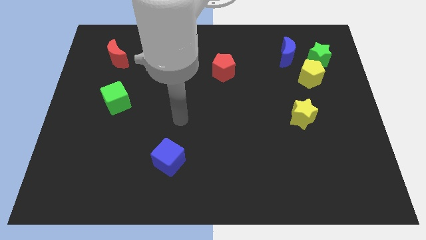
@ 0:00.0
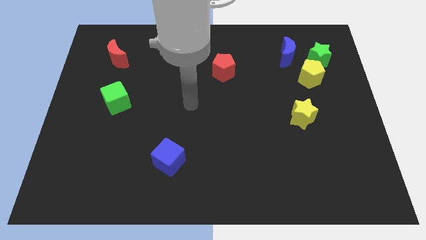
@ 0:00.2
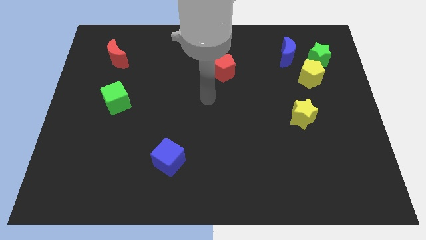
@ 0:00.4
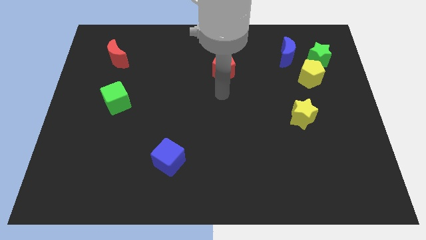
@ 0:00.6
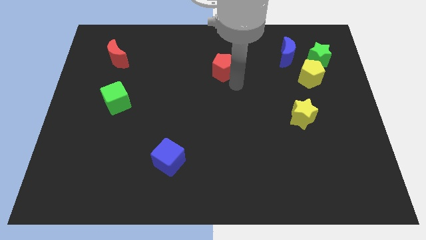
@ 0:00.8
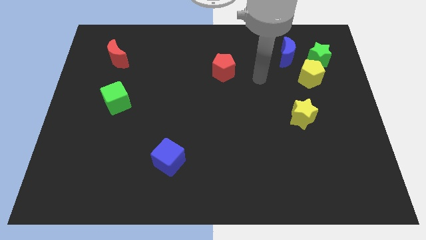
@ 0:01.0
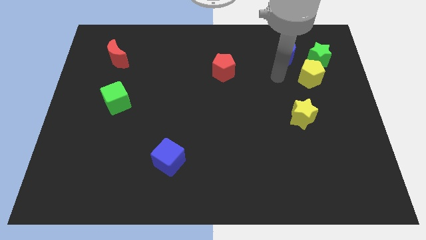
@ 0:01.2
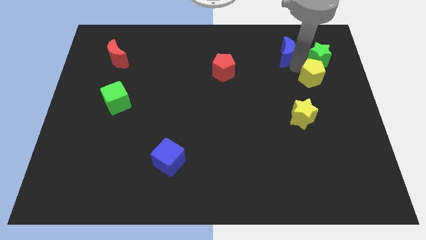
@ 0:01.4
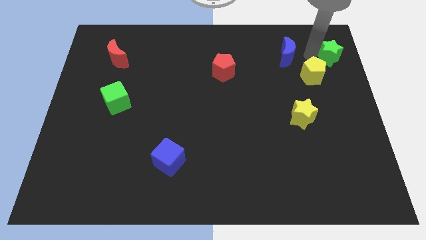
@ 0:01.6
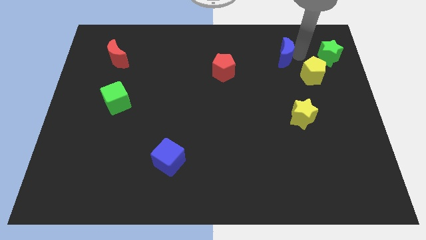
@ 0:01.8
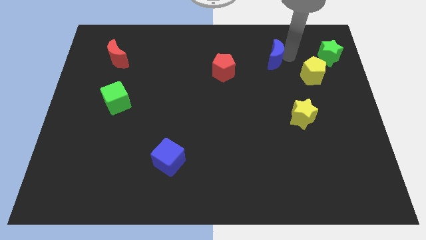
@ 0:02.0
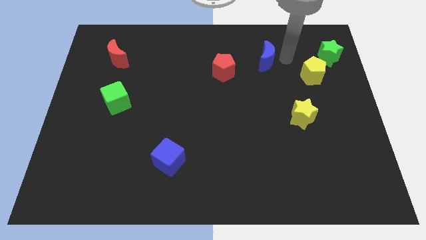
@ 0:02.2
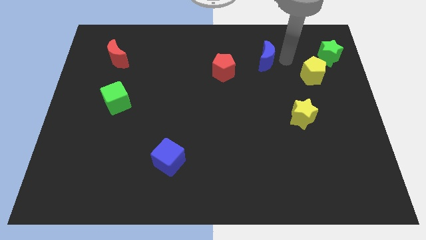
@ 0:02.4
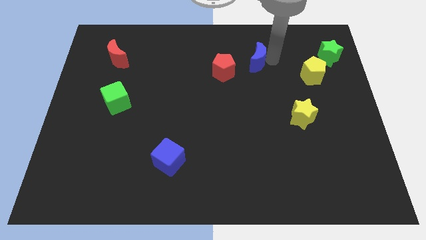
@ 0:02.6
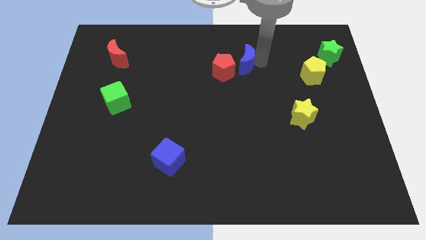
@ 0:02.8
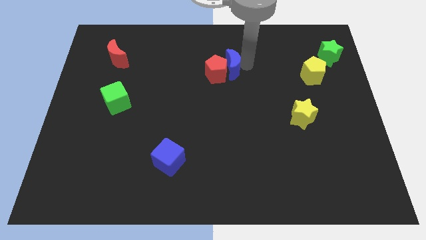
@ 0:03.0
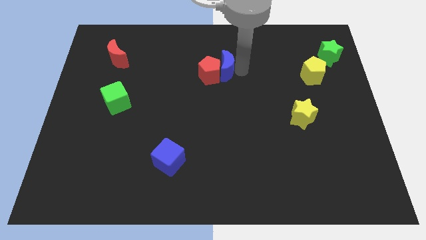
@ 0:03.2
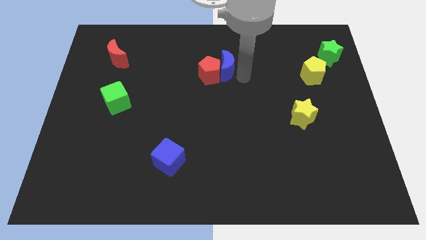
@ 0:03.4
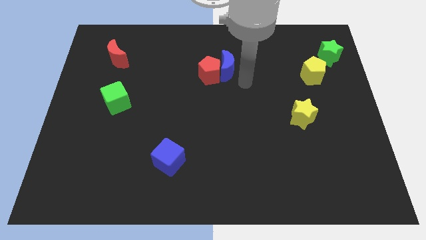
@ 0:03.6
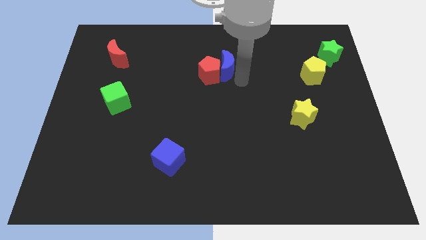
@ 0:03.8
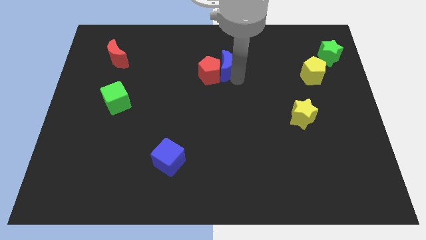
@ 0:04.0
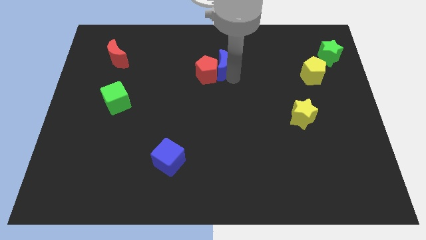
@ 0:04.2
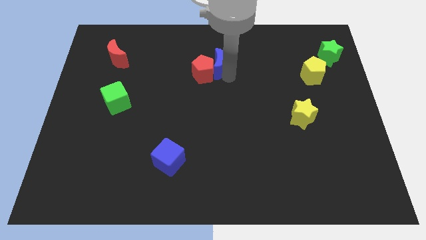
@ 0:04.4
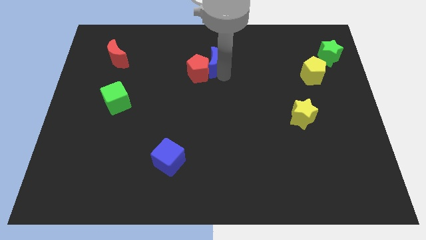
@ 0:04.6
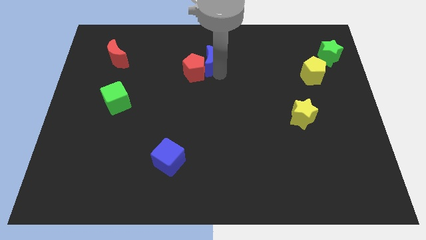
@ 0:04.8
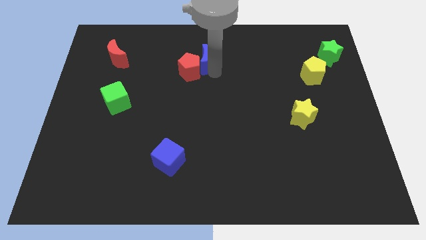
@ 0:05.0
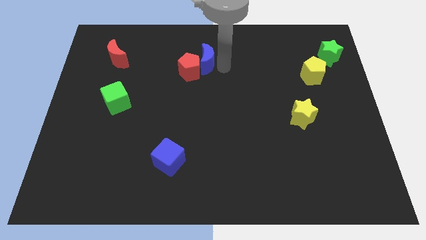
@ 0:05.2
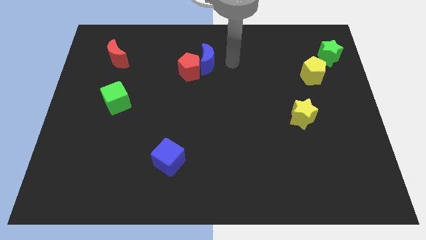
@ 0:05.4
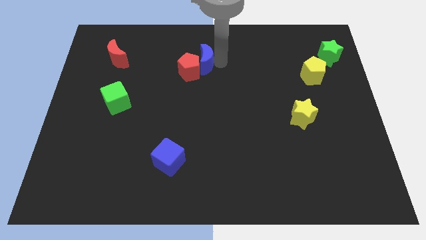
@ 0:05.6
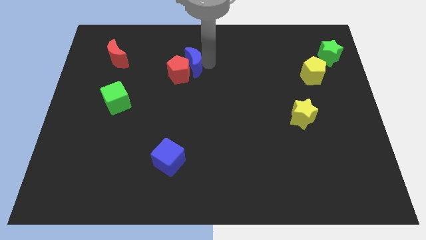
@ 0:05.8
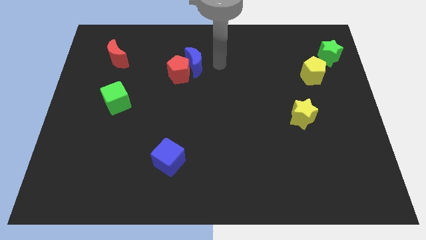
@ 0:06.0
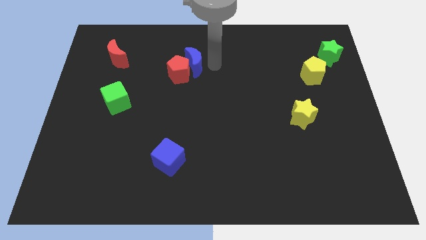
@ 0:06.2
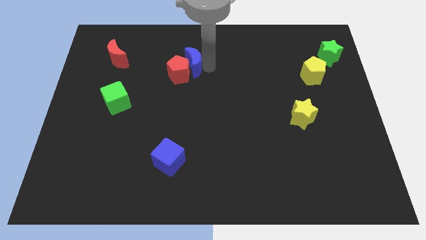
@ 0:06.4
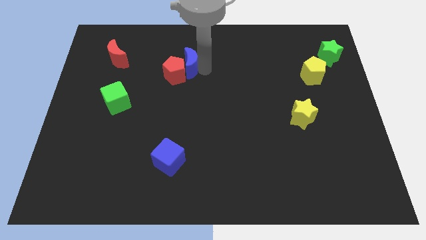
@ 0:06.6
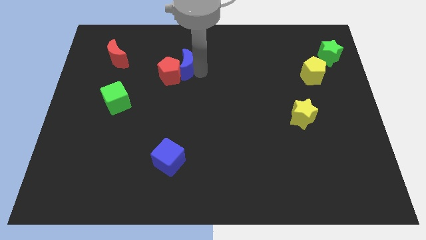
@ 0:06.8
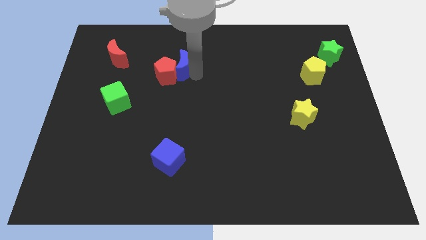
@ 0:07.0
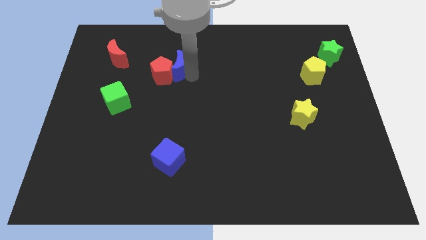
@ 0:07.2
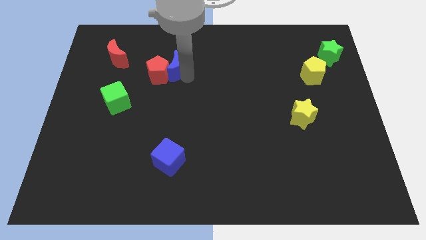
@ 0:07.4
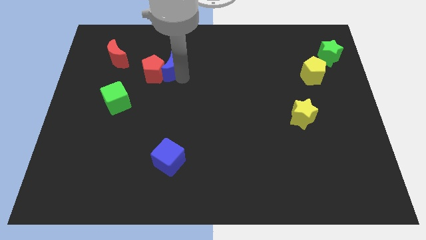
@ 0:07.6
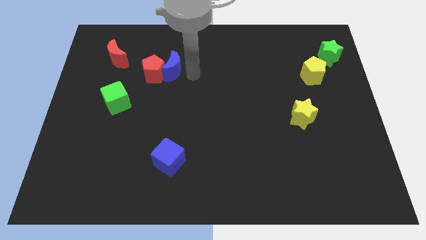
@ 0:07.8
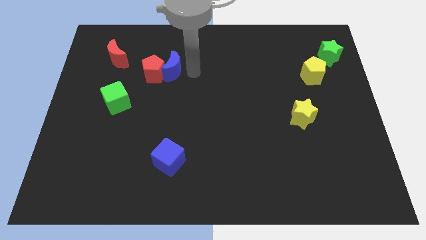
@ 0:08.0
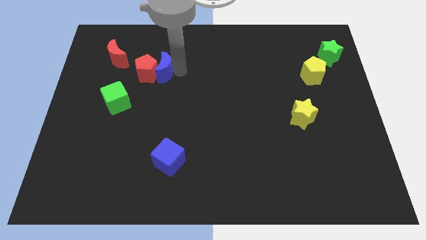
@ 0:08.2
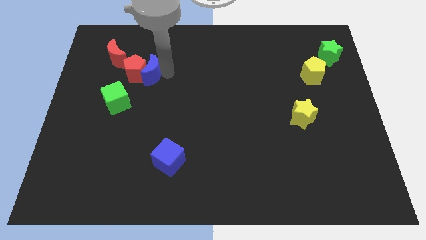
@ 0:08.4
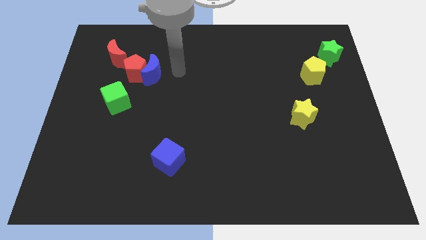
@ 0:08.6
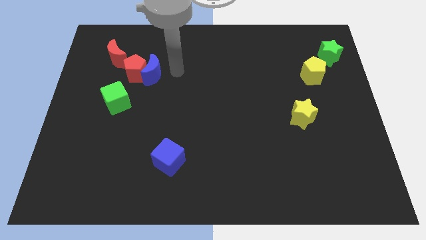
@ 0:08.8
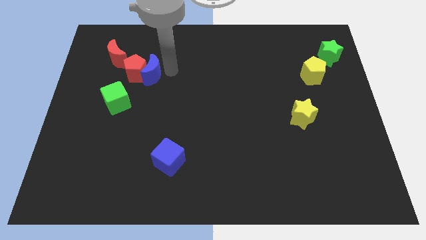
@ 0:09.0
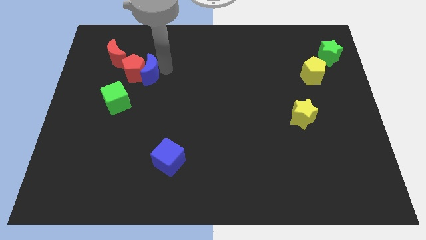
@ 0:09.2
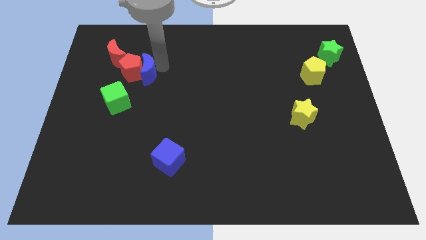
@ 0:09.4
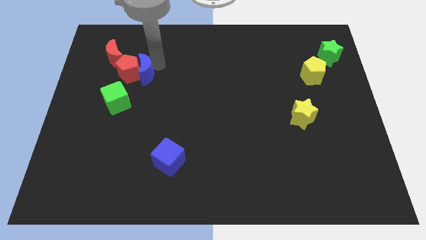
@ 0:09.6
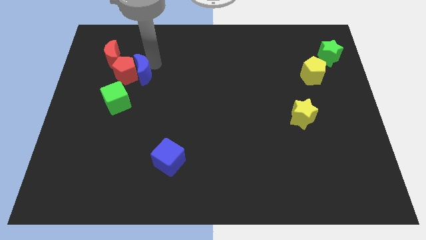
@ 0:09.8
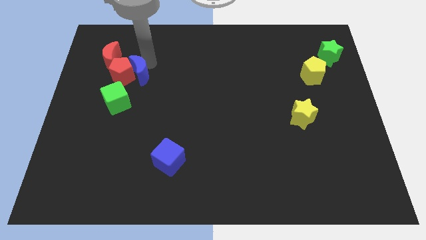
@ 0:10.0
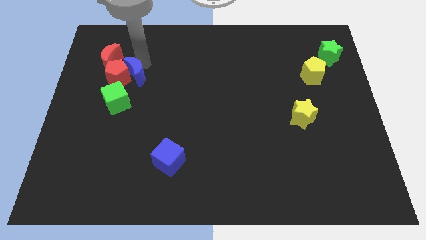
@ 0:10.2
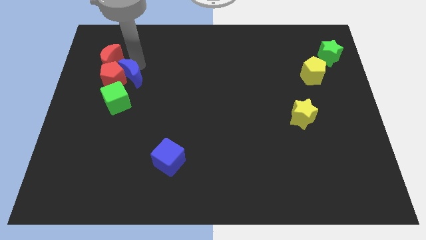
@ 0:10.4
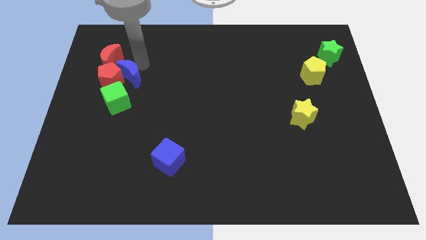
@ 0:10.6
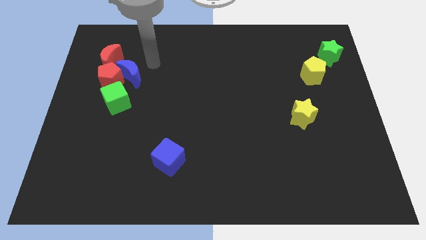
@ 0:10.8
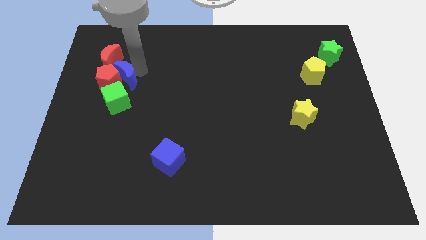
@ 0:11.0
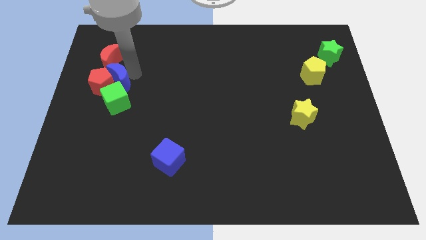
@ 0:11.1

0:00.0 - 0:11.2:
move the blue moon below the red moon

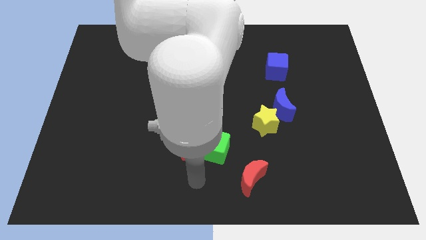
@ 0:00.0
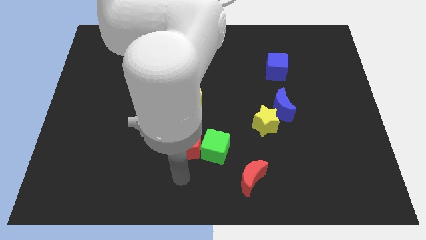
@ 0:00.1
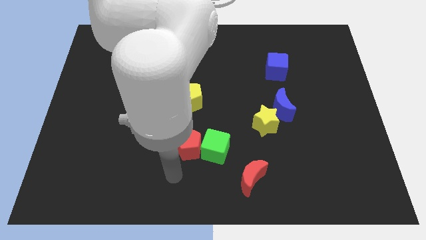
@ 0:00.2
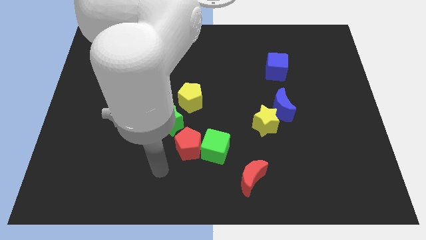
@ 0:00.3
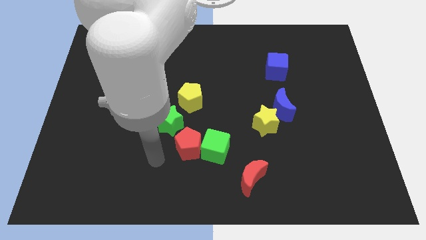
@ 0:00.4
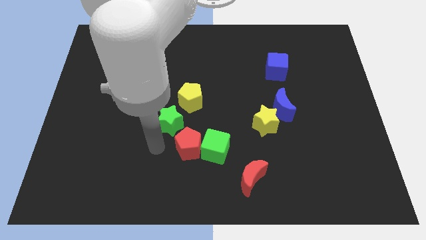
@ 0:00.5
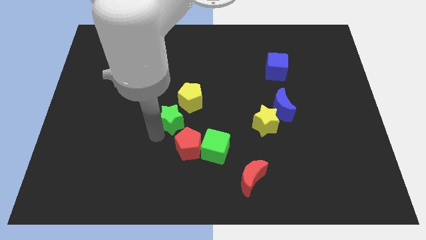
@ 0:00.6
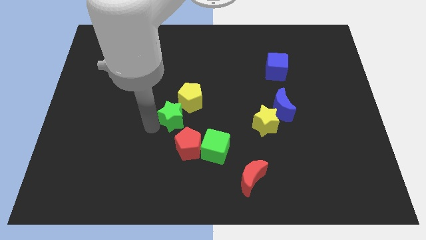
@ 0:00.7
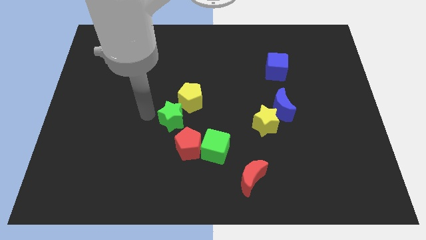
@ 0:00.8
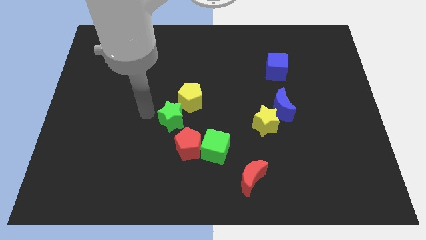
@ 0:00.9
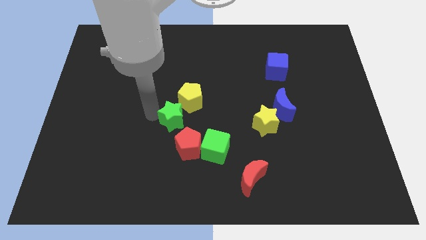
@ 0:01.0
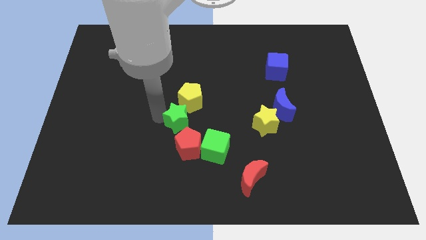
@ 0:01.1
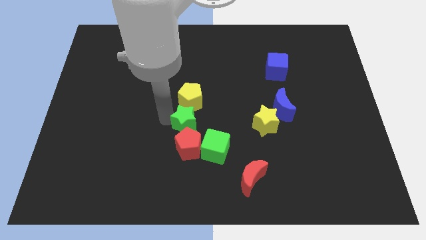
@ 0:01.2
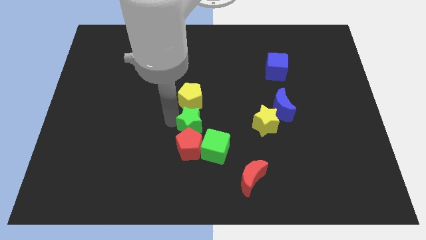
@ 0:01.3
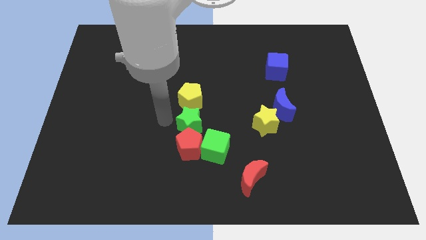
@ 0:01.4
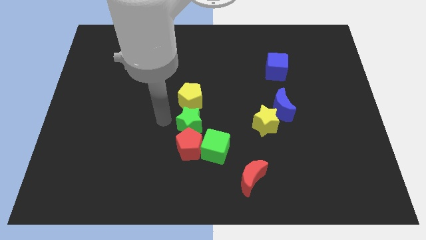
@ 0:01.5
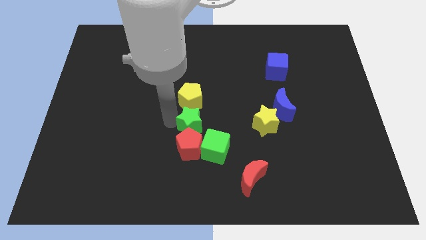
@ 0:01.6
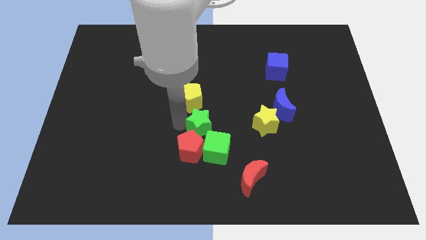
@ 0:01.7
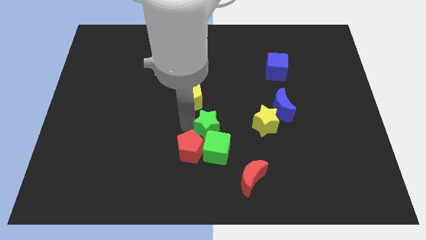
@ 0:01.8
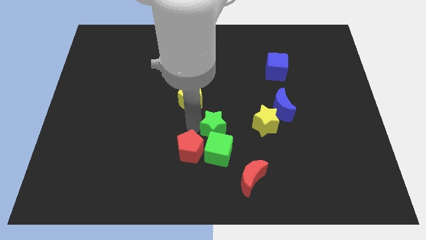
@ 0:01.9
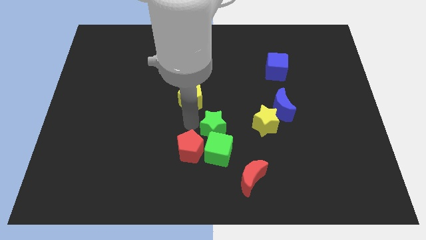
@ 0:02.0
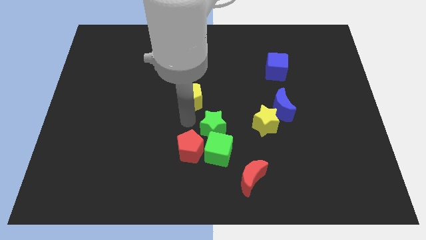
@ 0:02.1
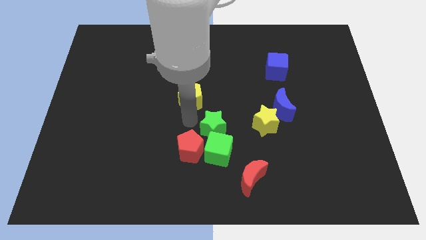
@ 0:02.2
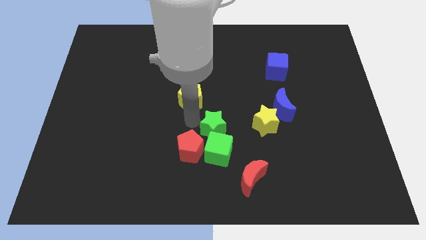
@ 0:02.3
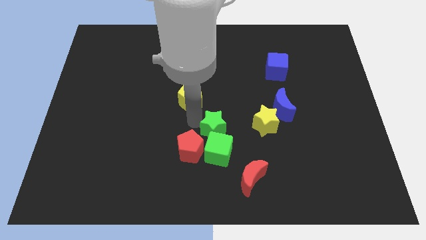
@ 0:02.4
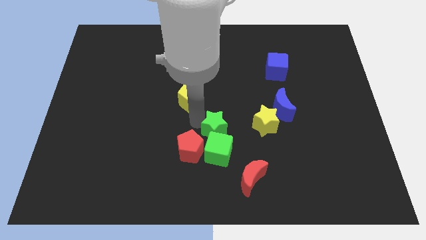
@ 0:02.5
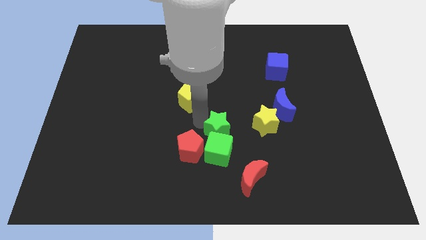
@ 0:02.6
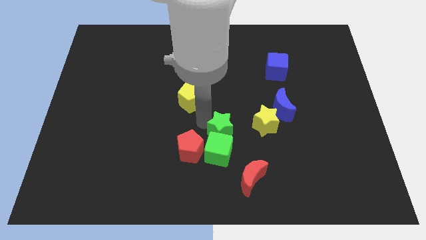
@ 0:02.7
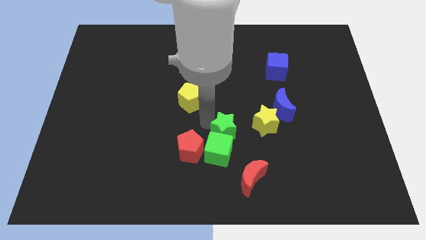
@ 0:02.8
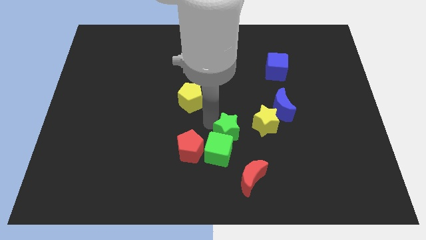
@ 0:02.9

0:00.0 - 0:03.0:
slide the green star above the red moon
